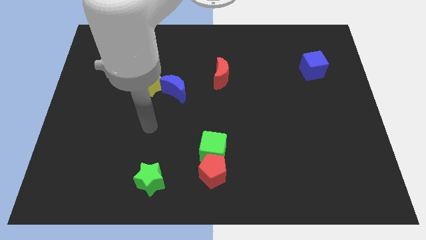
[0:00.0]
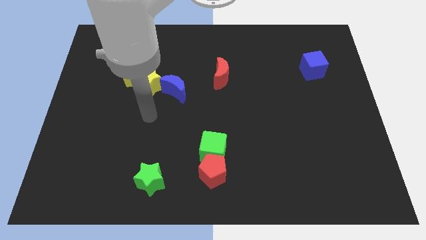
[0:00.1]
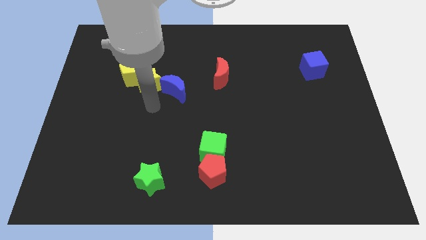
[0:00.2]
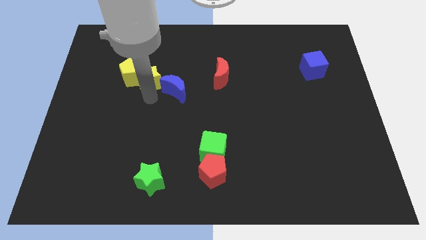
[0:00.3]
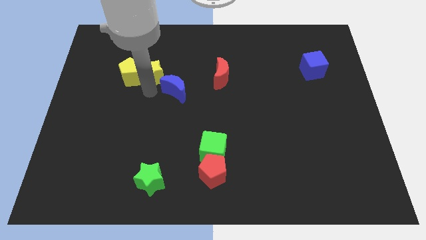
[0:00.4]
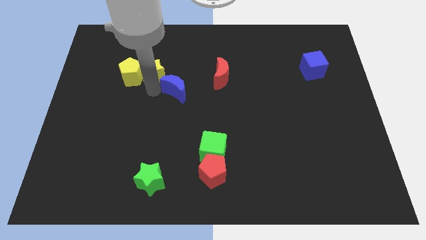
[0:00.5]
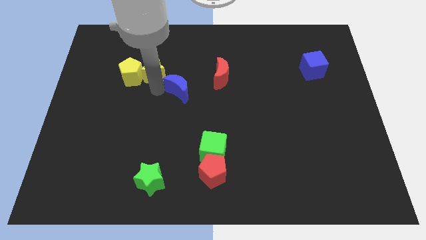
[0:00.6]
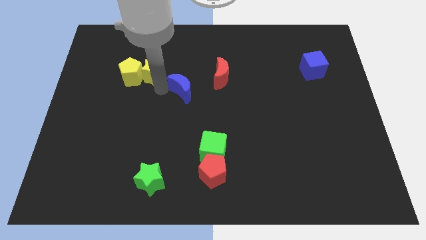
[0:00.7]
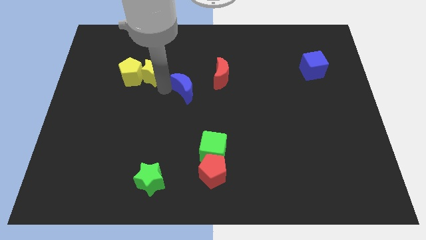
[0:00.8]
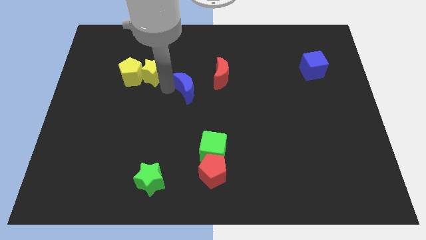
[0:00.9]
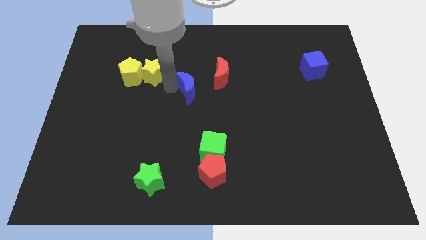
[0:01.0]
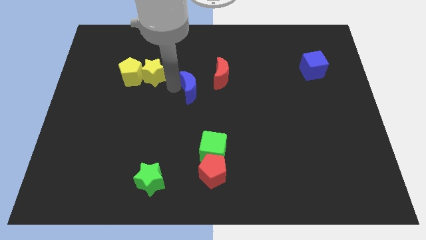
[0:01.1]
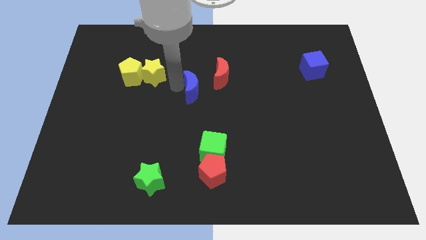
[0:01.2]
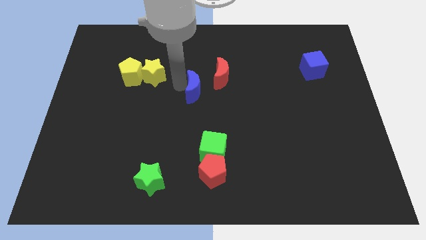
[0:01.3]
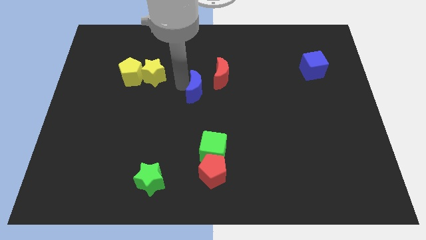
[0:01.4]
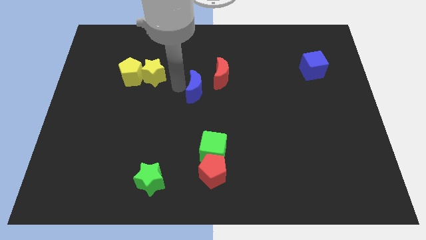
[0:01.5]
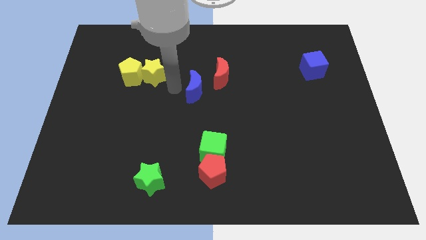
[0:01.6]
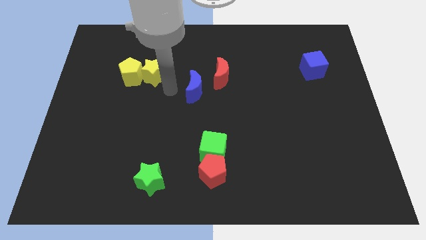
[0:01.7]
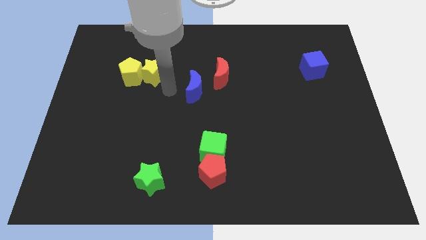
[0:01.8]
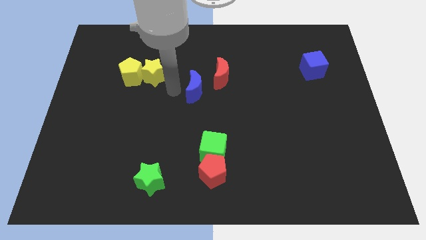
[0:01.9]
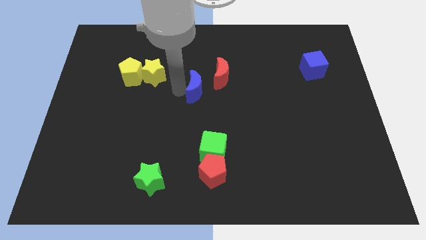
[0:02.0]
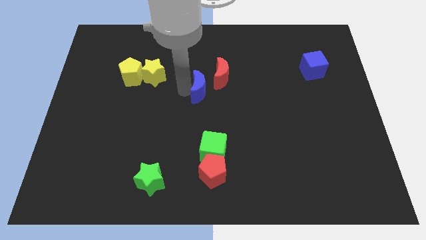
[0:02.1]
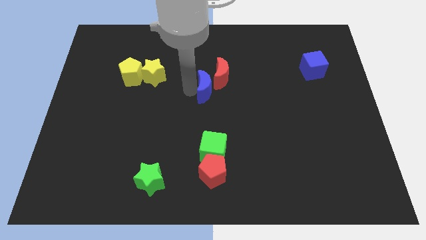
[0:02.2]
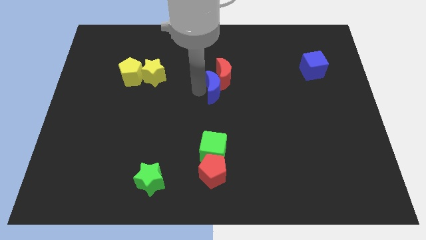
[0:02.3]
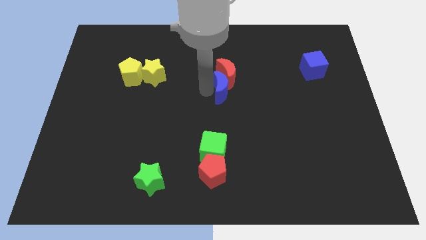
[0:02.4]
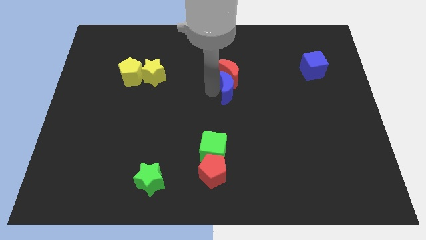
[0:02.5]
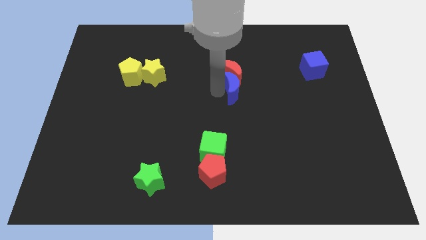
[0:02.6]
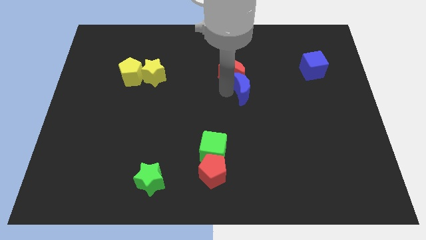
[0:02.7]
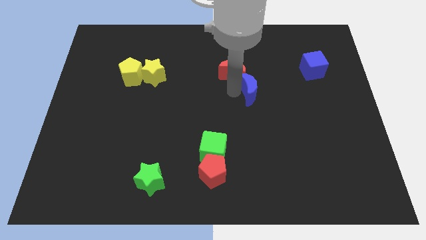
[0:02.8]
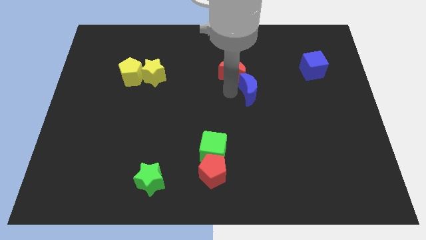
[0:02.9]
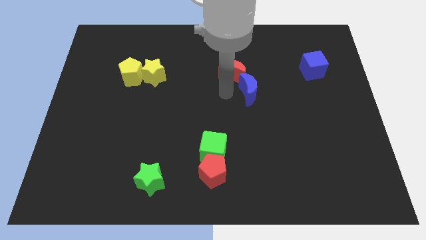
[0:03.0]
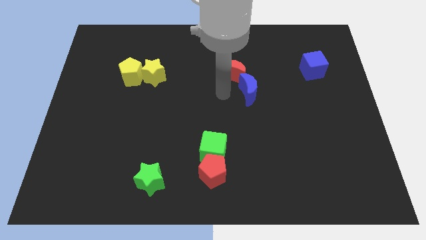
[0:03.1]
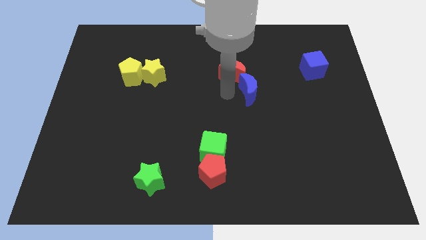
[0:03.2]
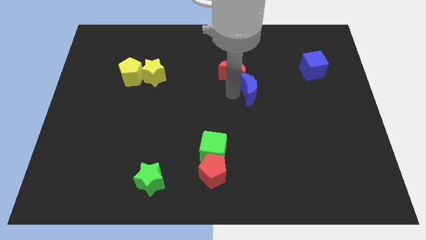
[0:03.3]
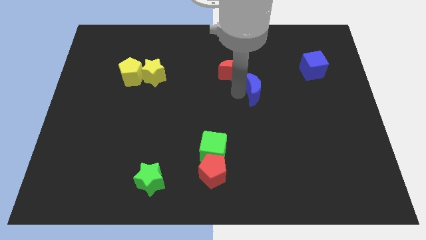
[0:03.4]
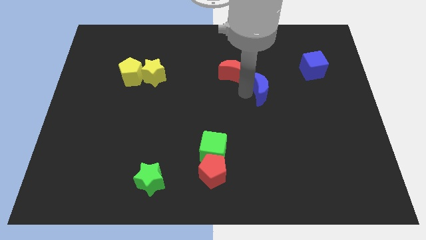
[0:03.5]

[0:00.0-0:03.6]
slide the blue moon right

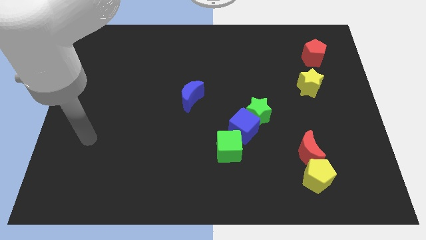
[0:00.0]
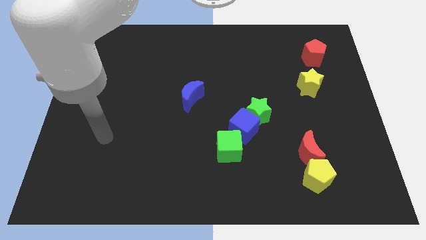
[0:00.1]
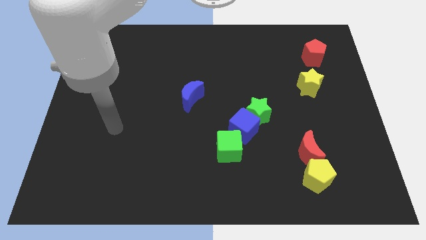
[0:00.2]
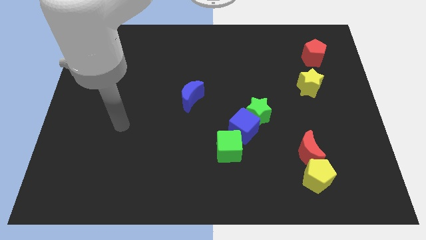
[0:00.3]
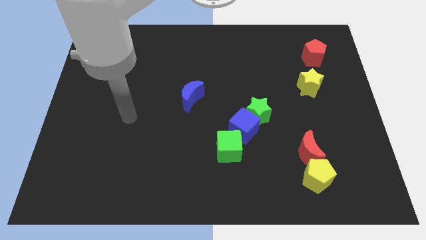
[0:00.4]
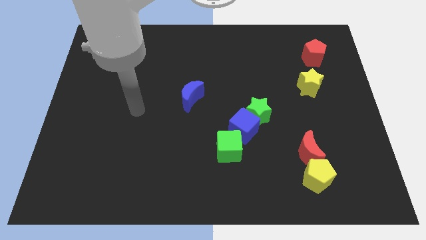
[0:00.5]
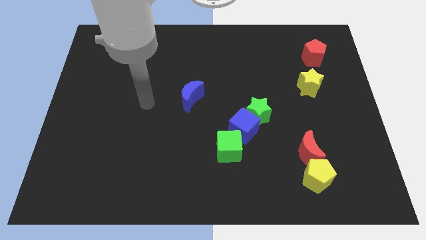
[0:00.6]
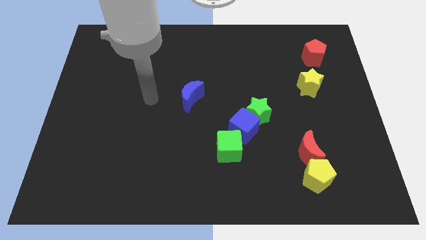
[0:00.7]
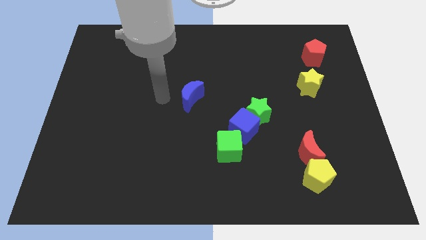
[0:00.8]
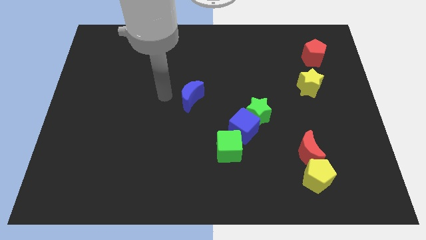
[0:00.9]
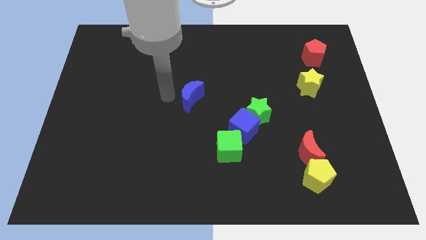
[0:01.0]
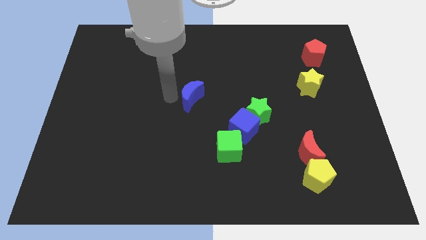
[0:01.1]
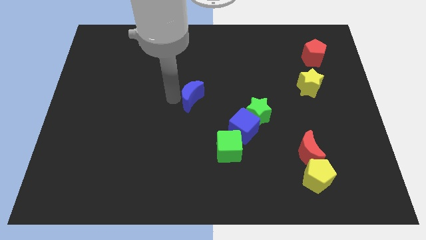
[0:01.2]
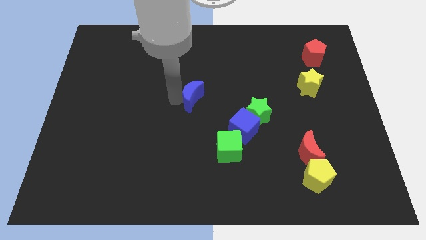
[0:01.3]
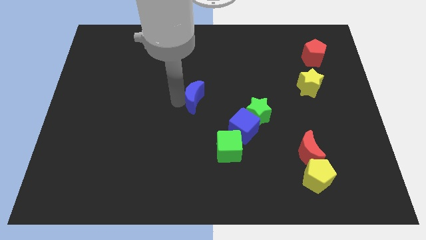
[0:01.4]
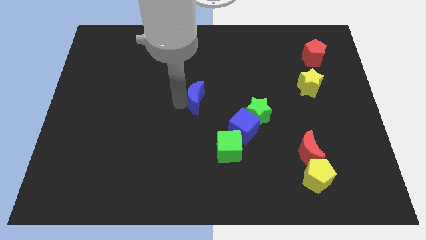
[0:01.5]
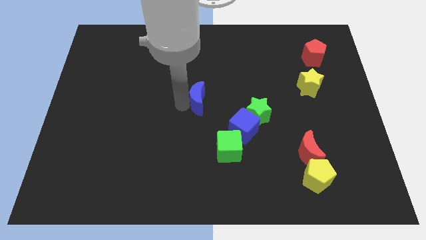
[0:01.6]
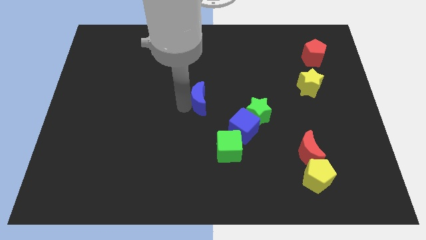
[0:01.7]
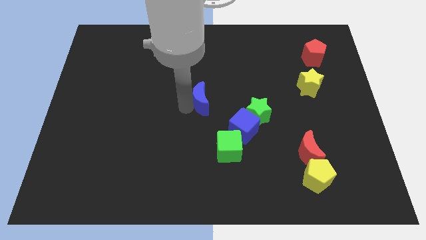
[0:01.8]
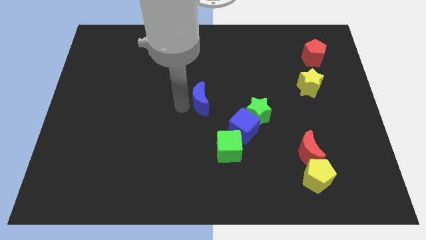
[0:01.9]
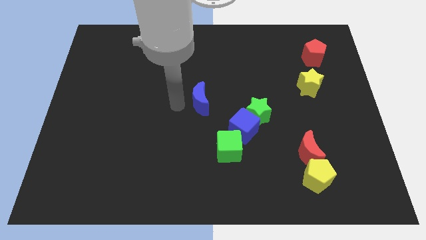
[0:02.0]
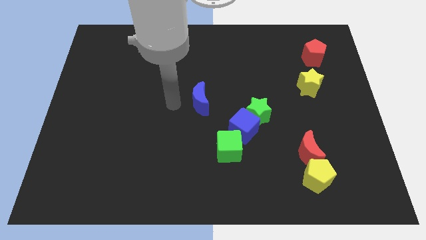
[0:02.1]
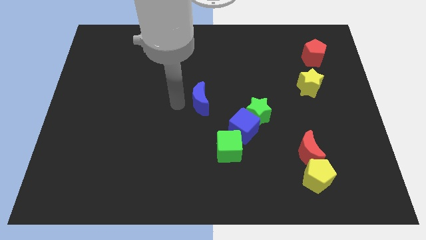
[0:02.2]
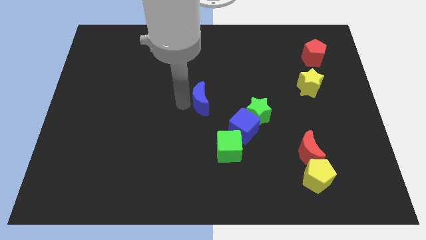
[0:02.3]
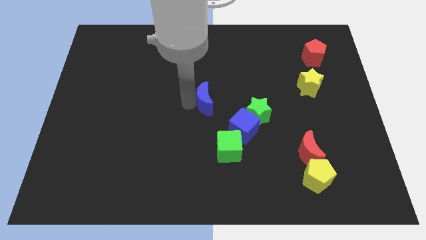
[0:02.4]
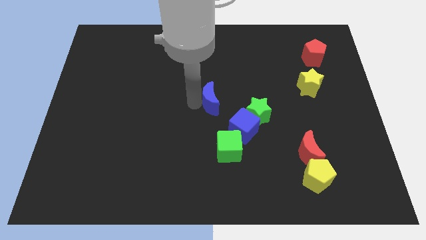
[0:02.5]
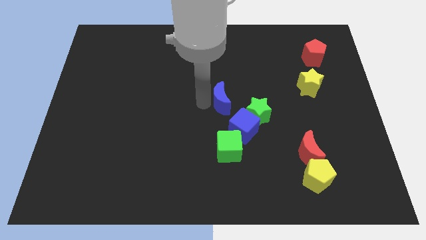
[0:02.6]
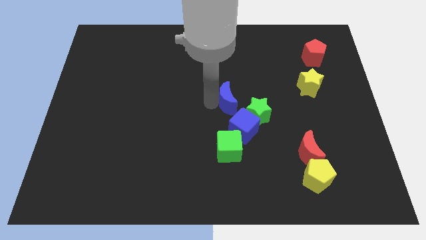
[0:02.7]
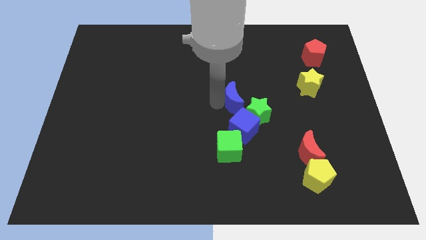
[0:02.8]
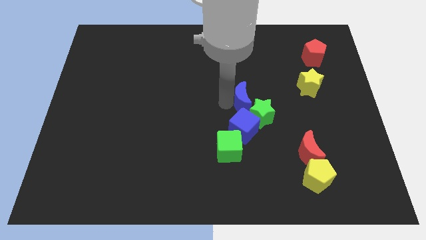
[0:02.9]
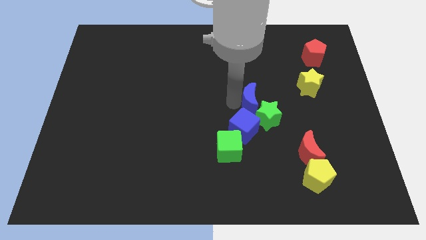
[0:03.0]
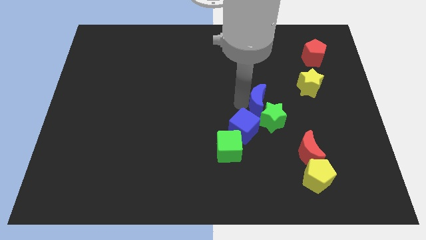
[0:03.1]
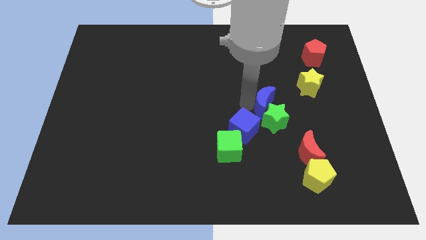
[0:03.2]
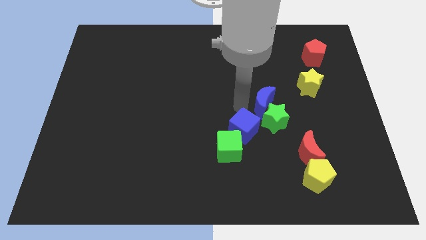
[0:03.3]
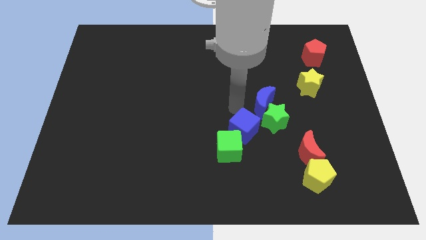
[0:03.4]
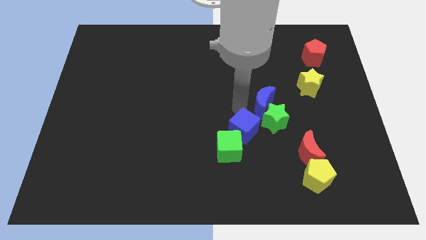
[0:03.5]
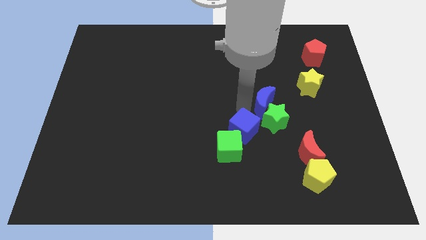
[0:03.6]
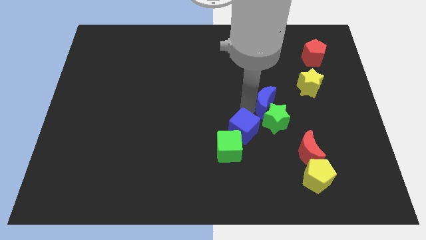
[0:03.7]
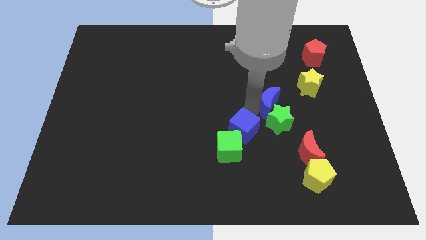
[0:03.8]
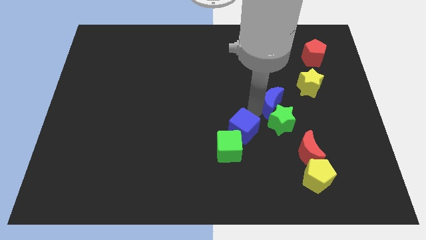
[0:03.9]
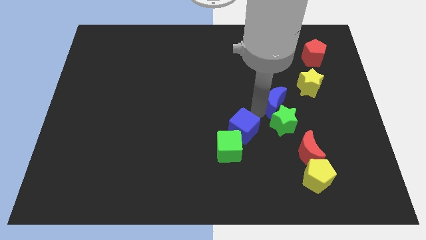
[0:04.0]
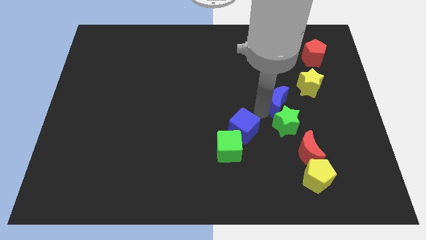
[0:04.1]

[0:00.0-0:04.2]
push the blue moon to the right

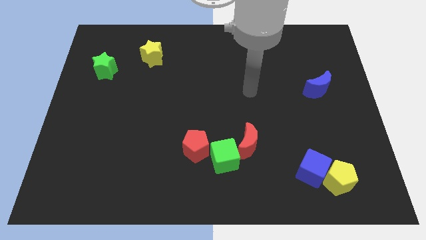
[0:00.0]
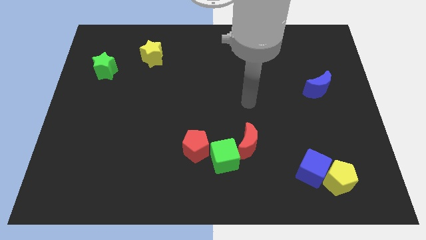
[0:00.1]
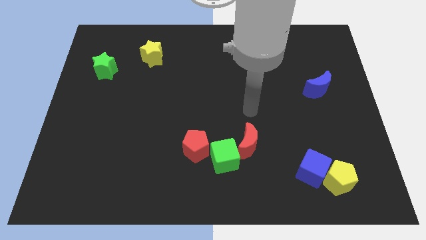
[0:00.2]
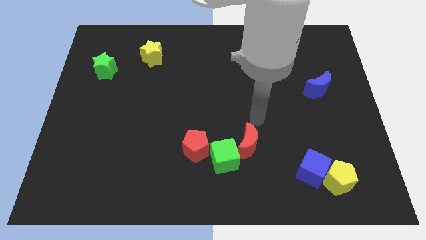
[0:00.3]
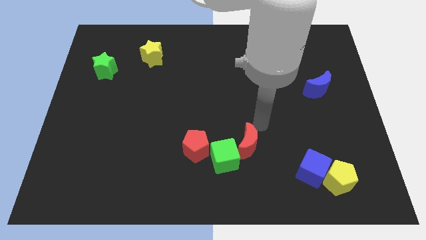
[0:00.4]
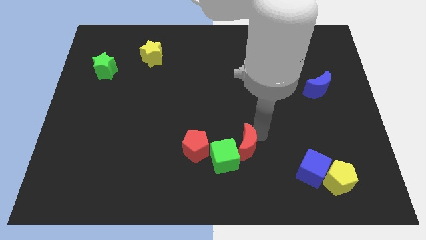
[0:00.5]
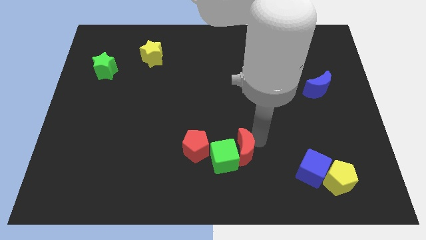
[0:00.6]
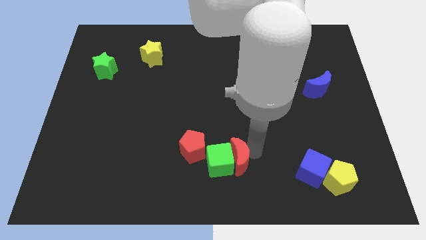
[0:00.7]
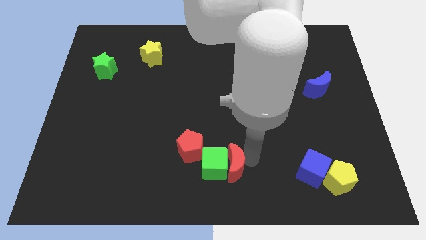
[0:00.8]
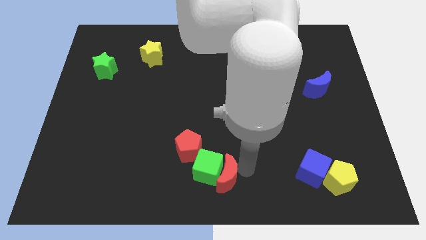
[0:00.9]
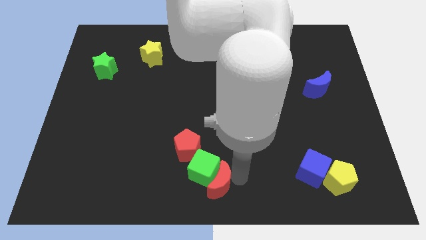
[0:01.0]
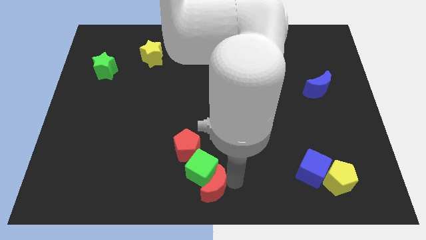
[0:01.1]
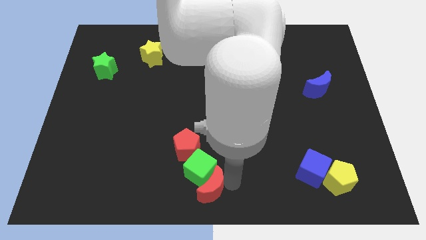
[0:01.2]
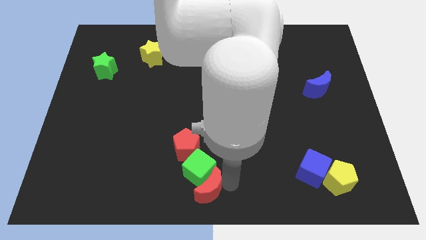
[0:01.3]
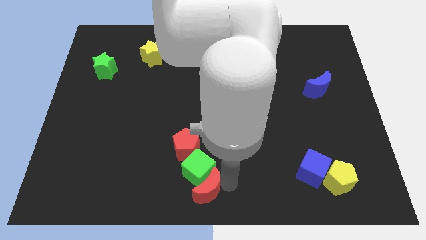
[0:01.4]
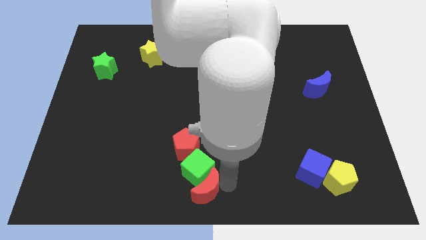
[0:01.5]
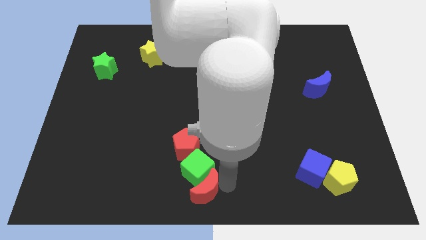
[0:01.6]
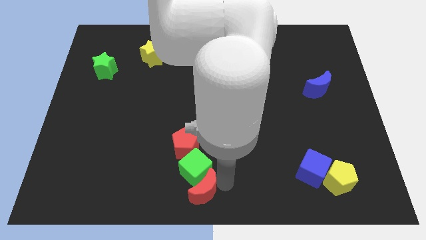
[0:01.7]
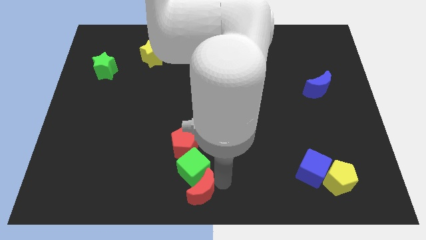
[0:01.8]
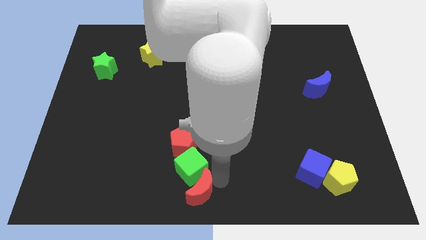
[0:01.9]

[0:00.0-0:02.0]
push the green cube a little bit to the left
